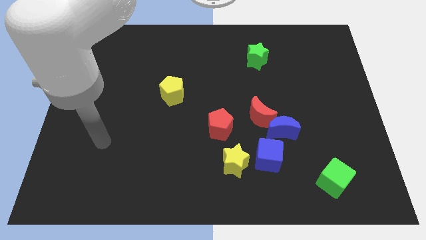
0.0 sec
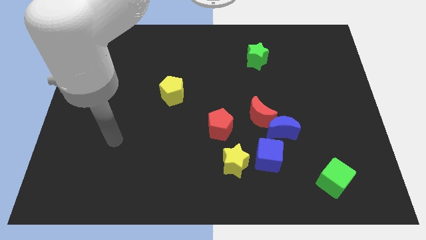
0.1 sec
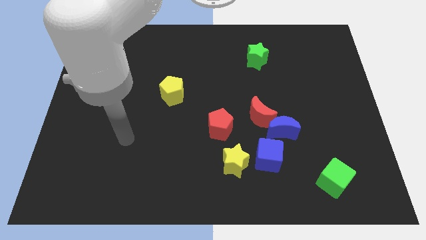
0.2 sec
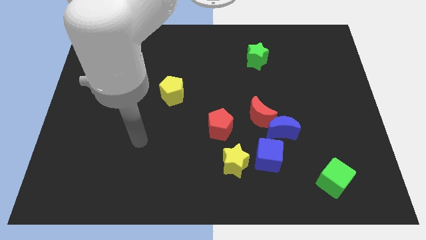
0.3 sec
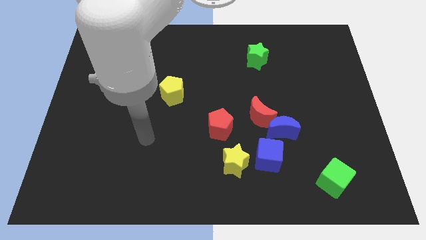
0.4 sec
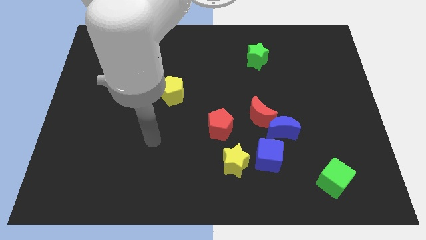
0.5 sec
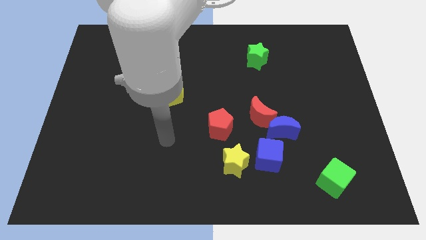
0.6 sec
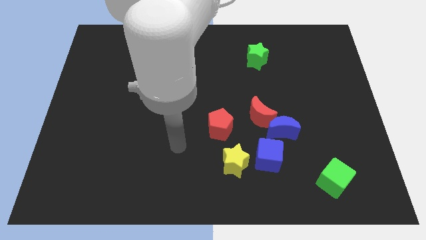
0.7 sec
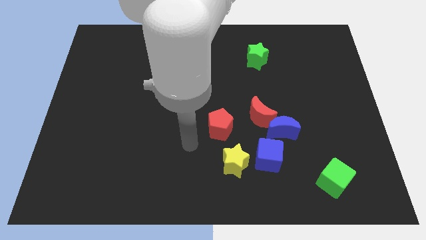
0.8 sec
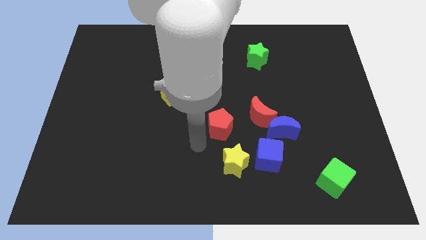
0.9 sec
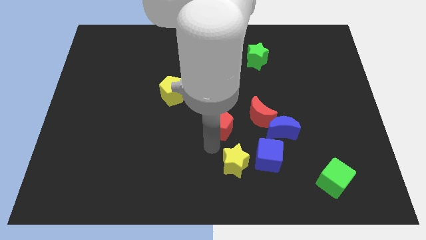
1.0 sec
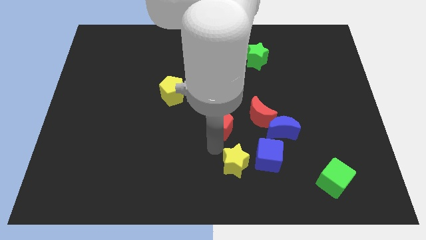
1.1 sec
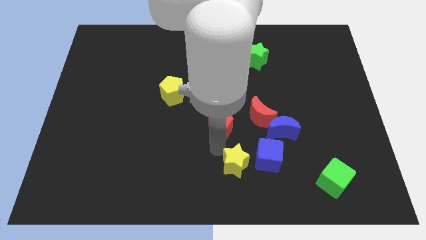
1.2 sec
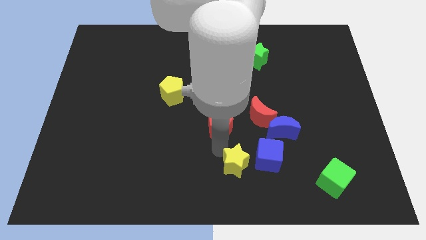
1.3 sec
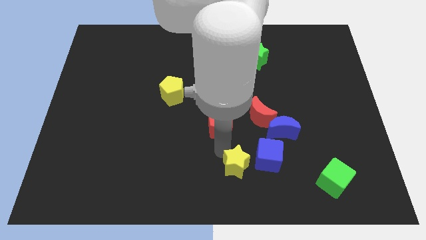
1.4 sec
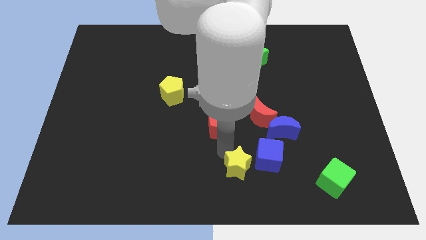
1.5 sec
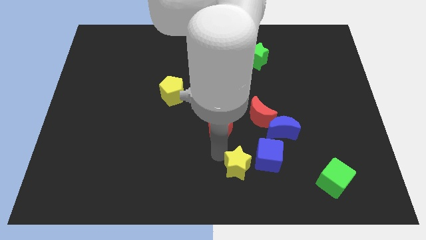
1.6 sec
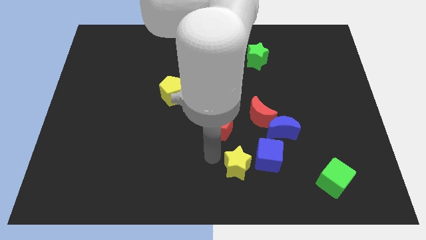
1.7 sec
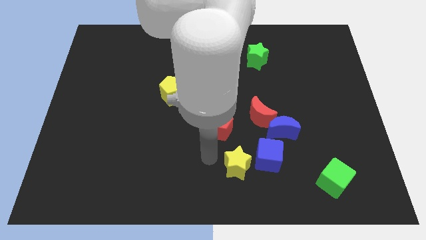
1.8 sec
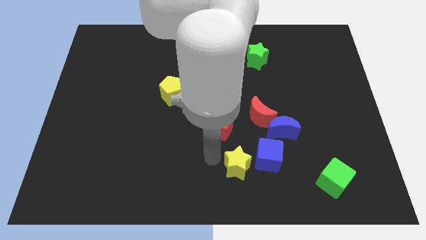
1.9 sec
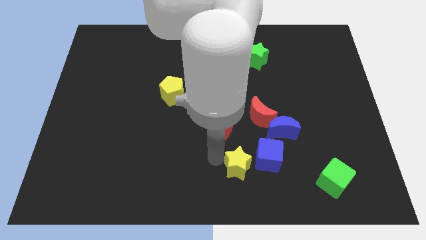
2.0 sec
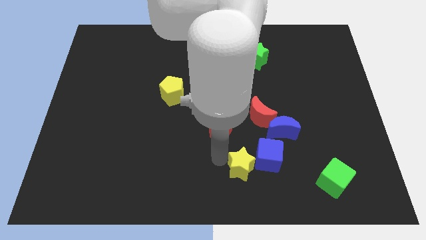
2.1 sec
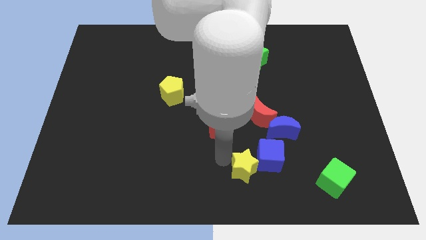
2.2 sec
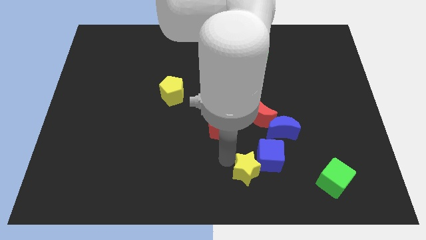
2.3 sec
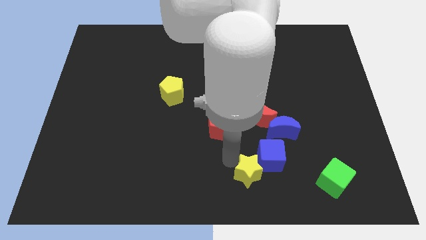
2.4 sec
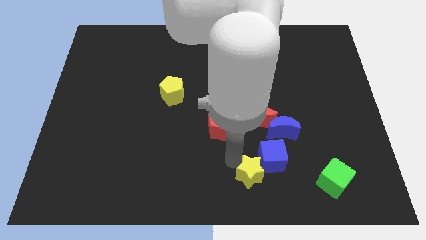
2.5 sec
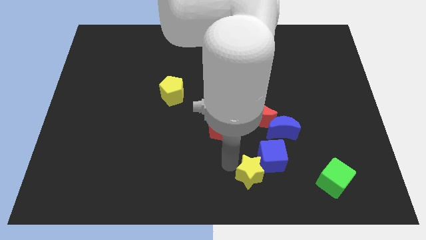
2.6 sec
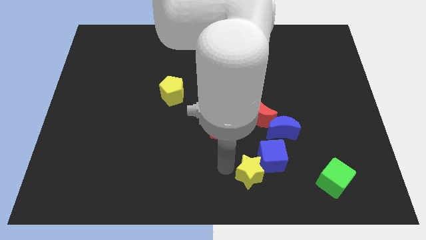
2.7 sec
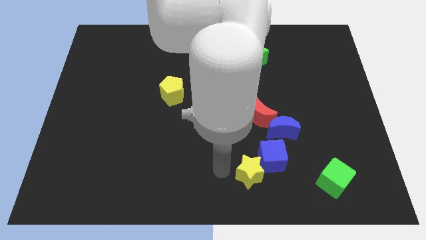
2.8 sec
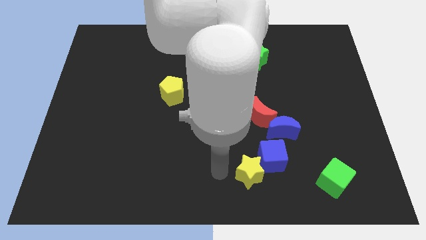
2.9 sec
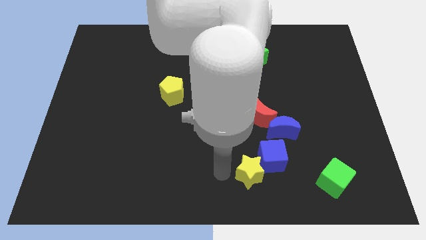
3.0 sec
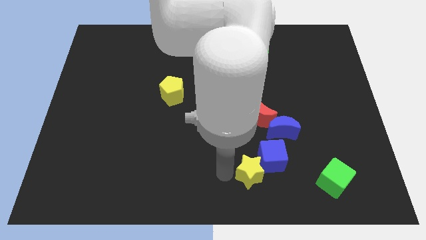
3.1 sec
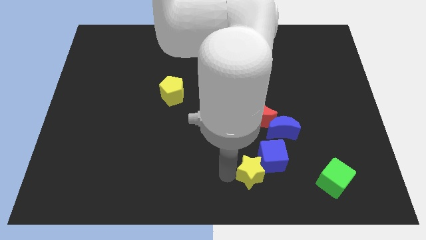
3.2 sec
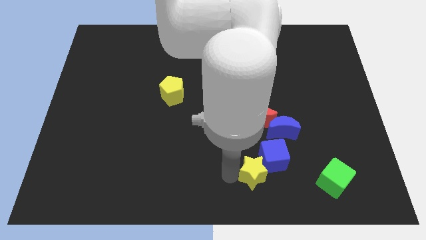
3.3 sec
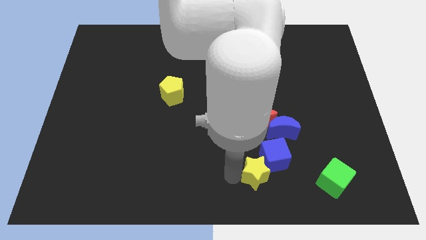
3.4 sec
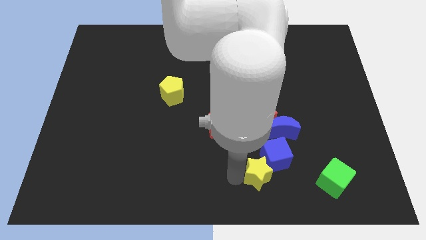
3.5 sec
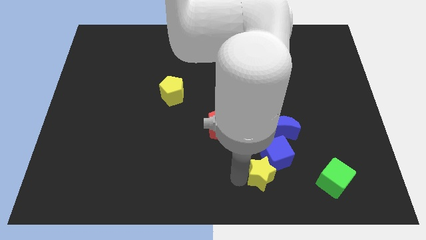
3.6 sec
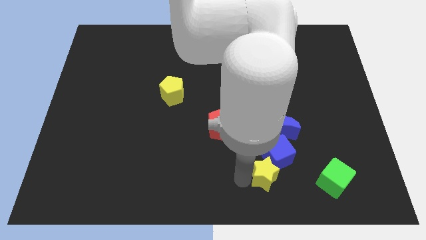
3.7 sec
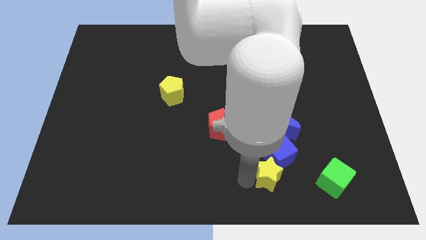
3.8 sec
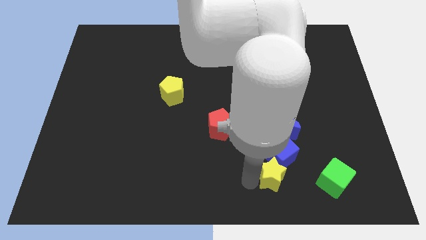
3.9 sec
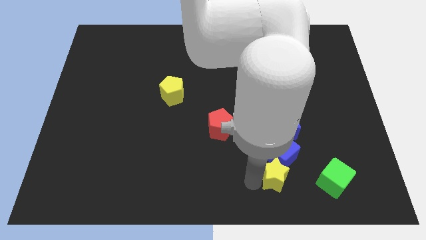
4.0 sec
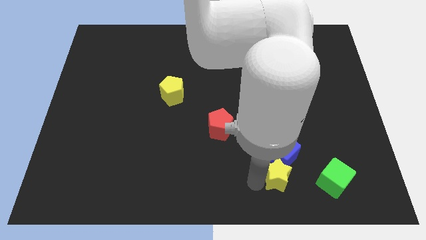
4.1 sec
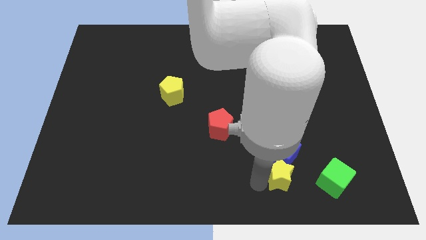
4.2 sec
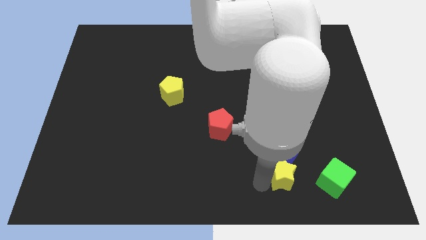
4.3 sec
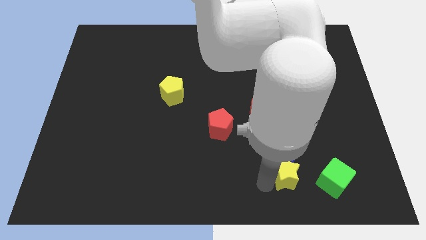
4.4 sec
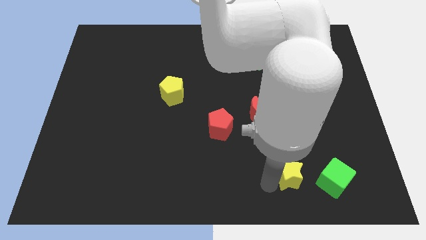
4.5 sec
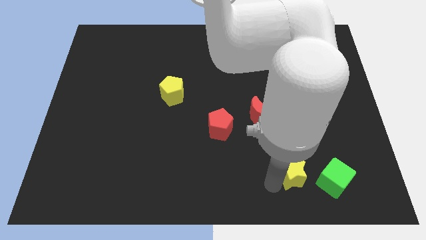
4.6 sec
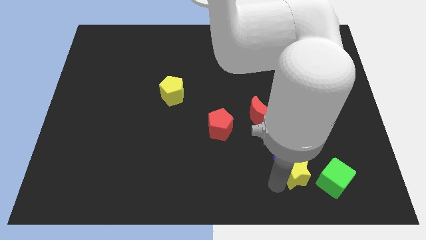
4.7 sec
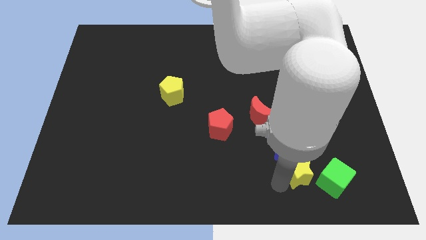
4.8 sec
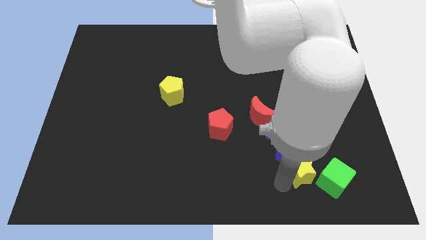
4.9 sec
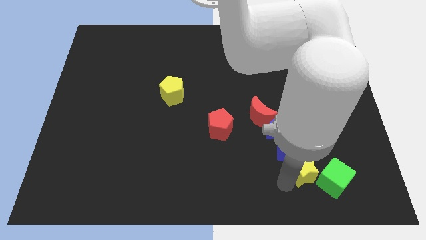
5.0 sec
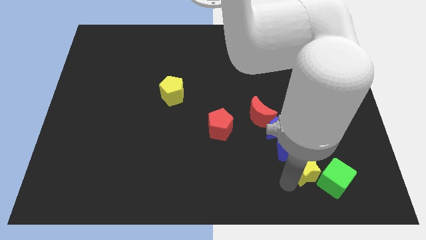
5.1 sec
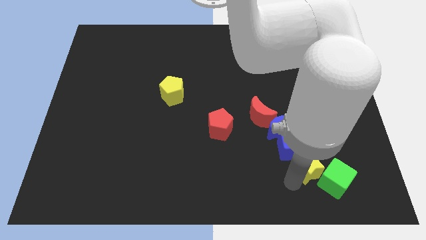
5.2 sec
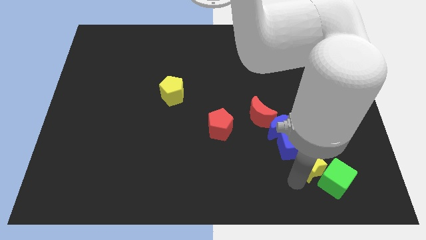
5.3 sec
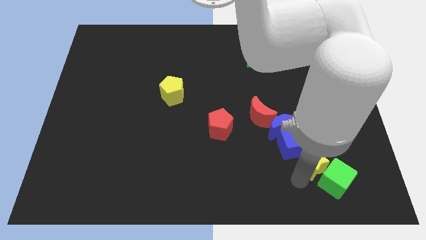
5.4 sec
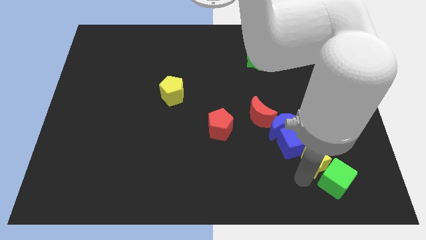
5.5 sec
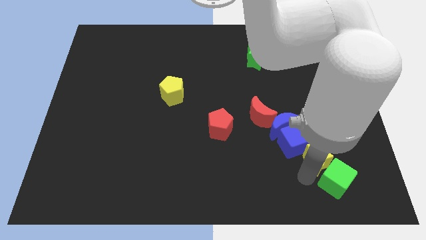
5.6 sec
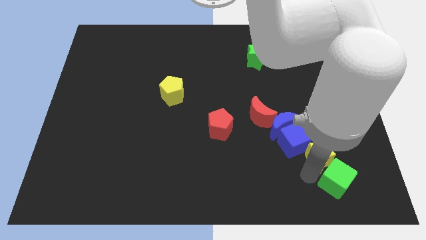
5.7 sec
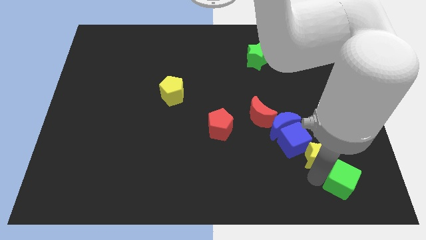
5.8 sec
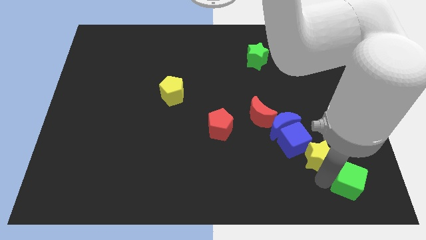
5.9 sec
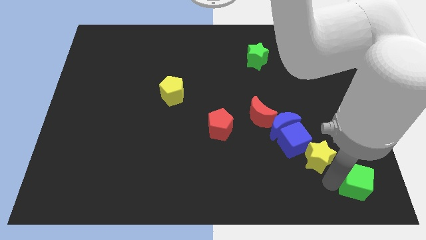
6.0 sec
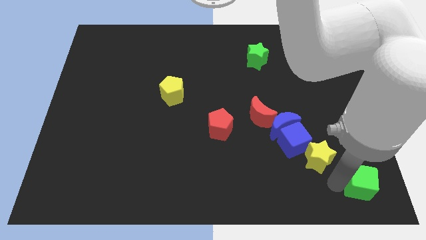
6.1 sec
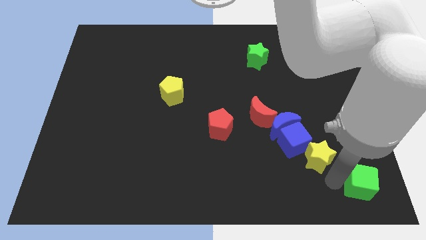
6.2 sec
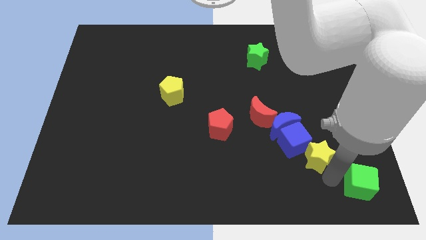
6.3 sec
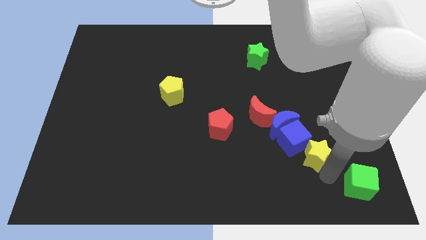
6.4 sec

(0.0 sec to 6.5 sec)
slightly push the yellow star upwards and to the right diagonally

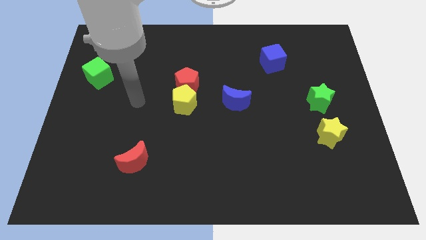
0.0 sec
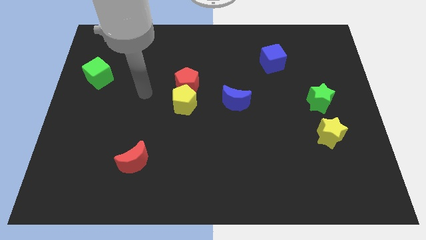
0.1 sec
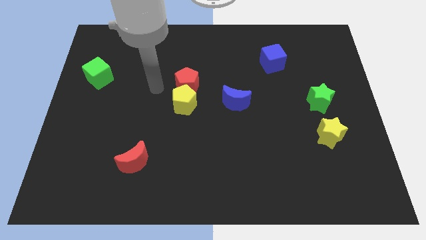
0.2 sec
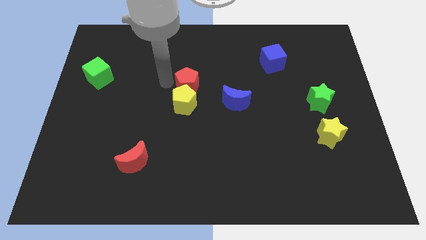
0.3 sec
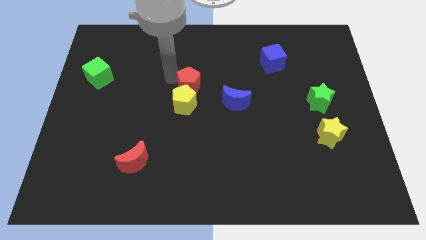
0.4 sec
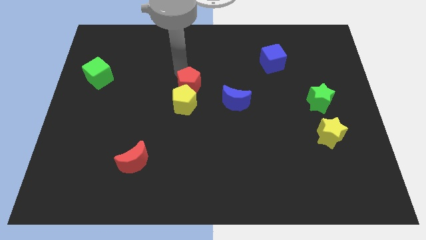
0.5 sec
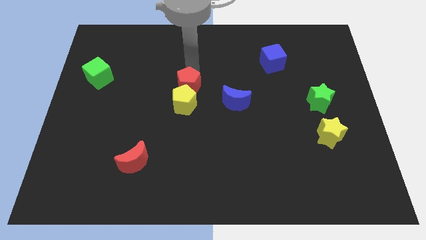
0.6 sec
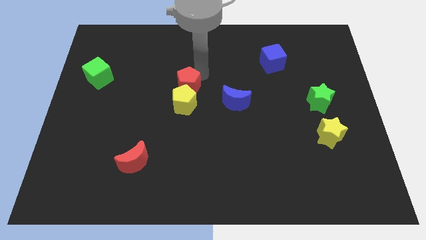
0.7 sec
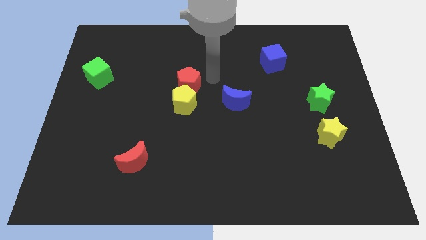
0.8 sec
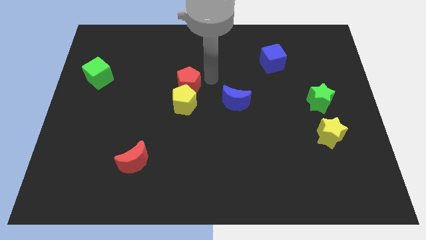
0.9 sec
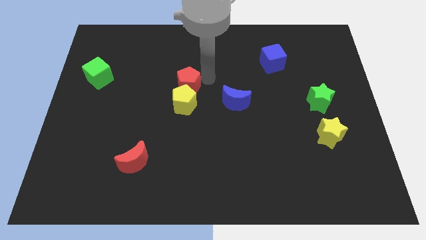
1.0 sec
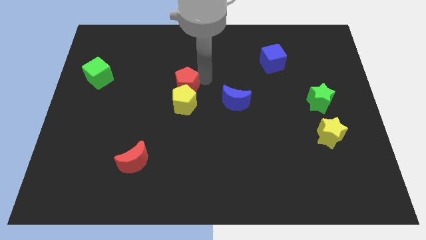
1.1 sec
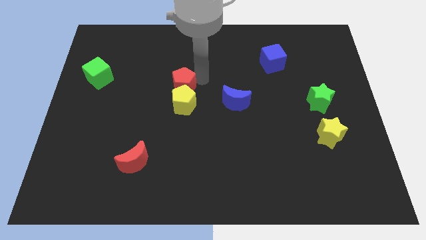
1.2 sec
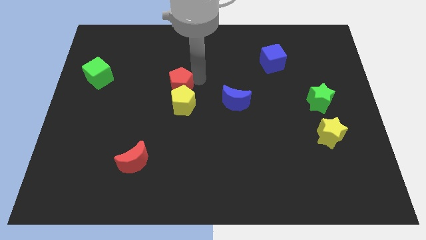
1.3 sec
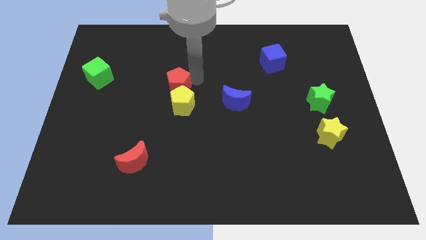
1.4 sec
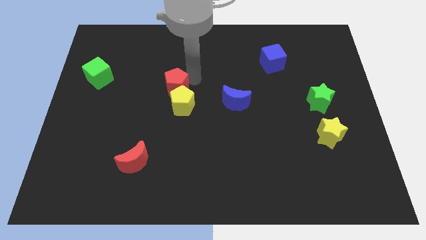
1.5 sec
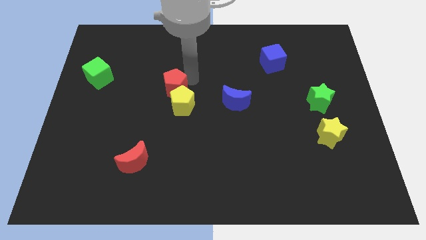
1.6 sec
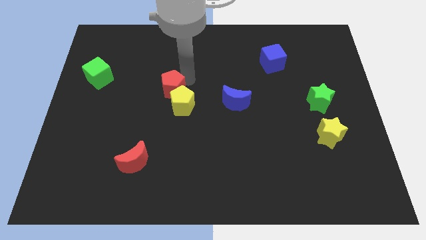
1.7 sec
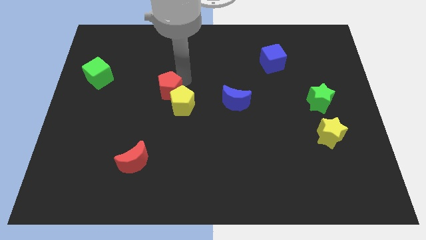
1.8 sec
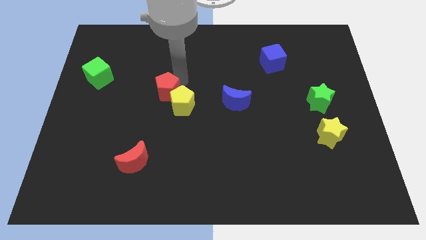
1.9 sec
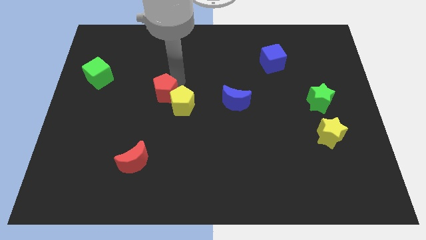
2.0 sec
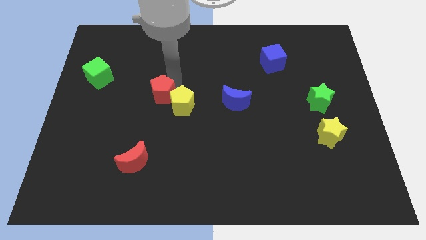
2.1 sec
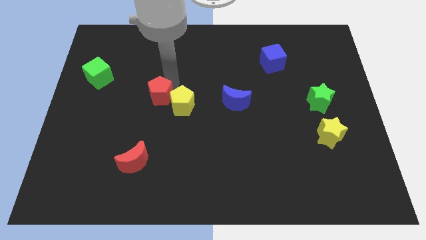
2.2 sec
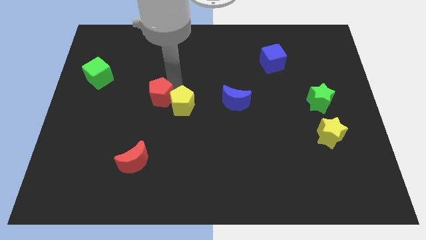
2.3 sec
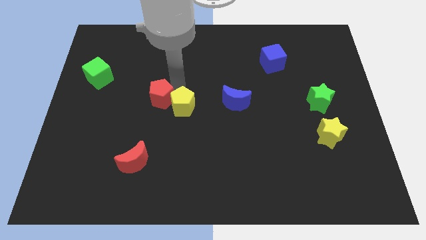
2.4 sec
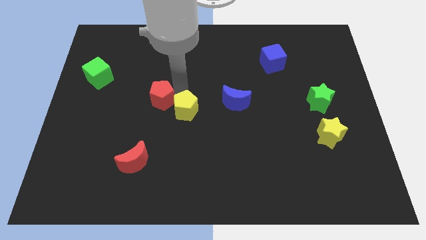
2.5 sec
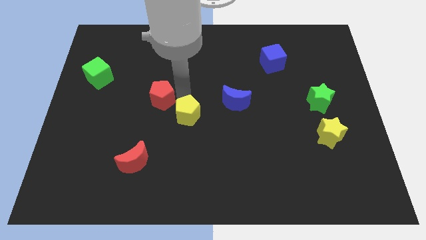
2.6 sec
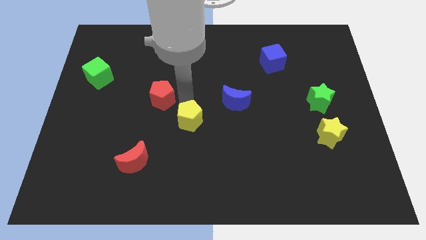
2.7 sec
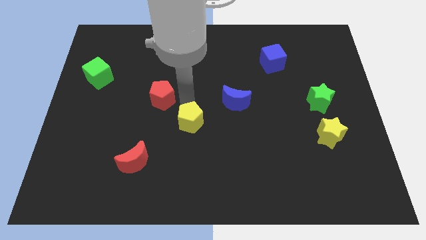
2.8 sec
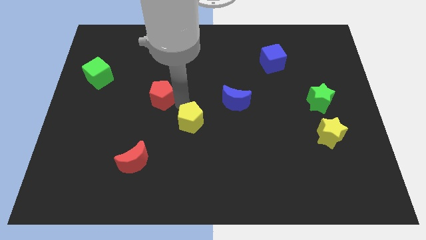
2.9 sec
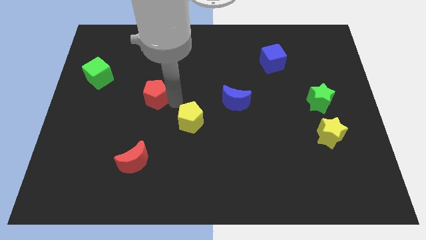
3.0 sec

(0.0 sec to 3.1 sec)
slightly slide the red pentagon to the left
